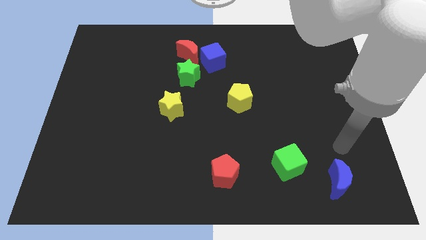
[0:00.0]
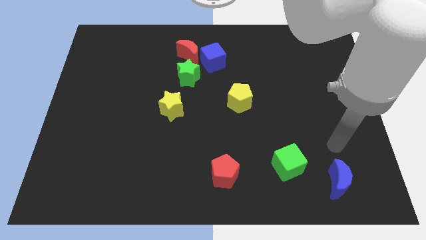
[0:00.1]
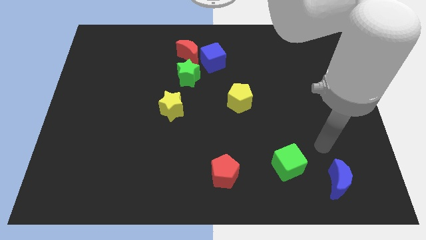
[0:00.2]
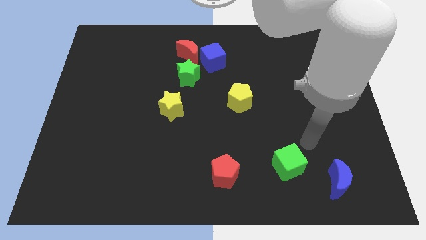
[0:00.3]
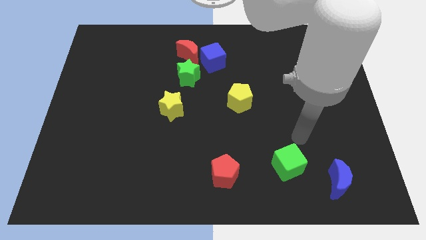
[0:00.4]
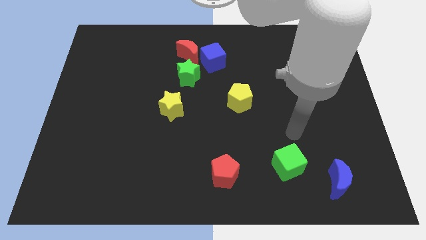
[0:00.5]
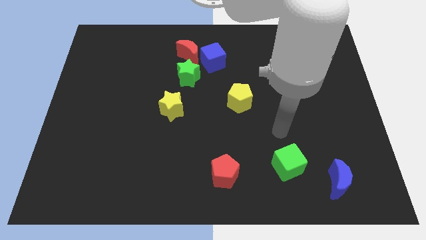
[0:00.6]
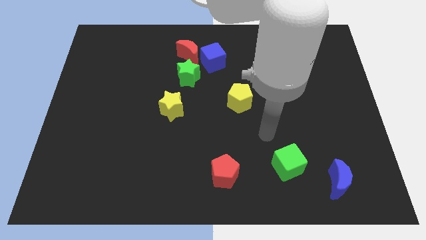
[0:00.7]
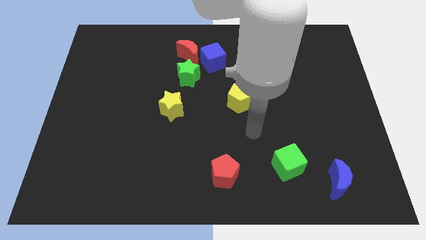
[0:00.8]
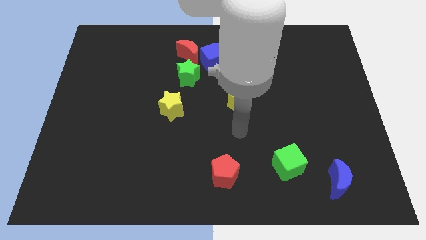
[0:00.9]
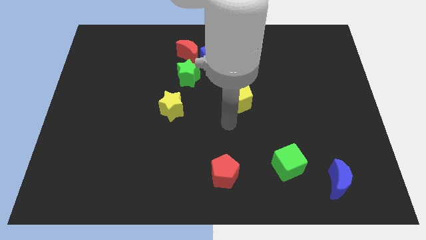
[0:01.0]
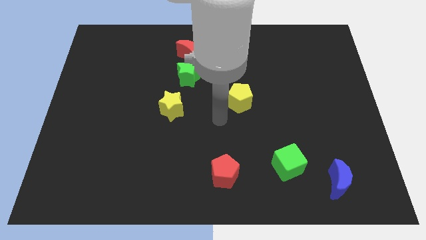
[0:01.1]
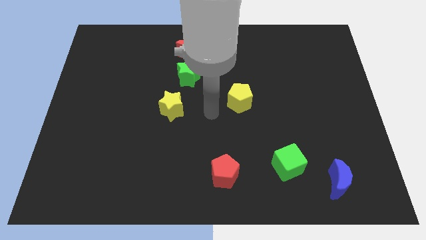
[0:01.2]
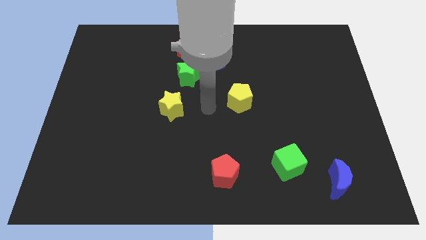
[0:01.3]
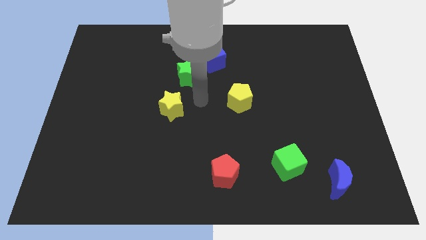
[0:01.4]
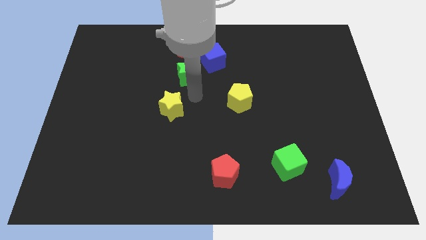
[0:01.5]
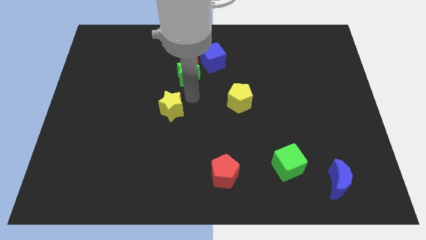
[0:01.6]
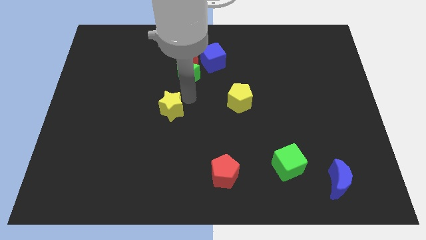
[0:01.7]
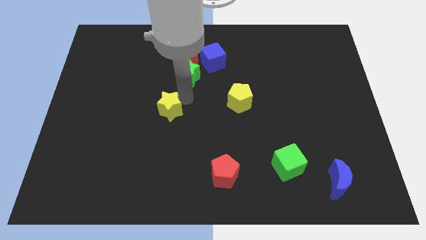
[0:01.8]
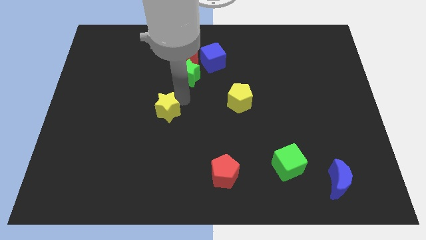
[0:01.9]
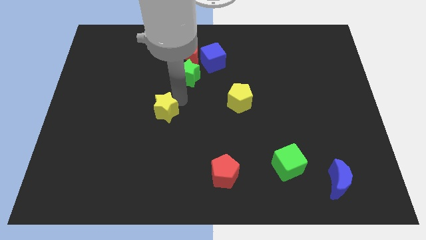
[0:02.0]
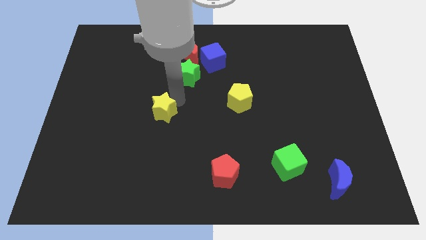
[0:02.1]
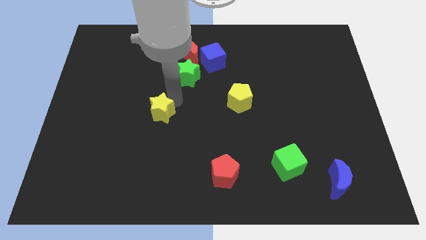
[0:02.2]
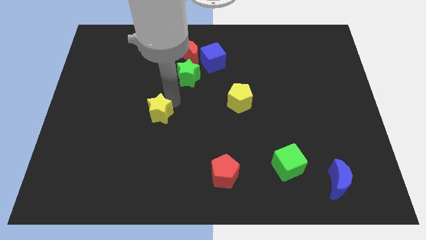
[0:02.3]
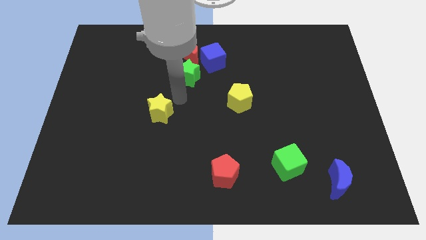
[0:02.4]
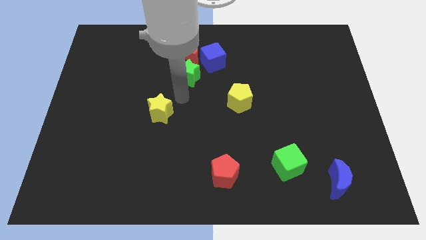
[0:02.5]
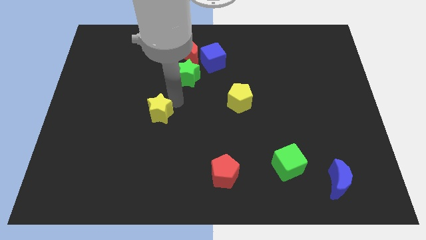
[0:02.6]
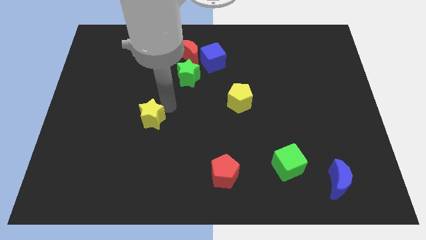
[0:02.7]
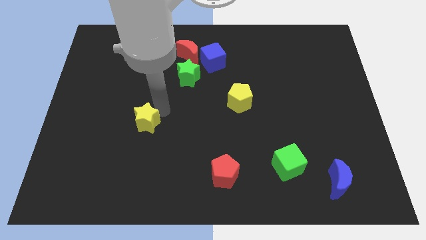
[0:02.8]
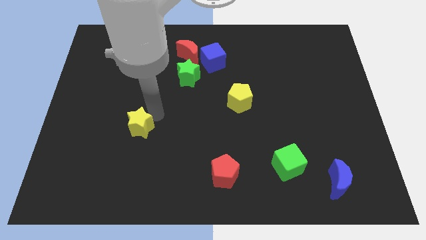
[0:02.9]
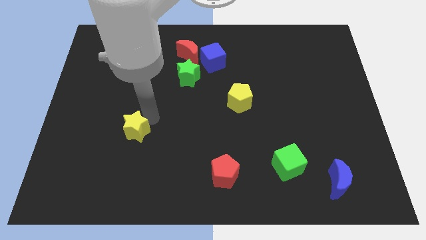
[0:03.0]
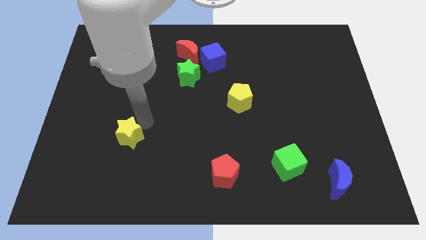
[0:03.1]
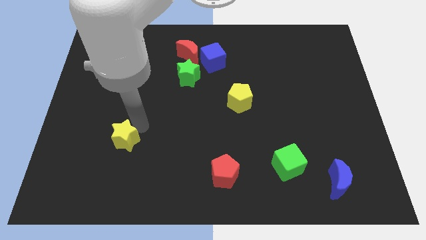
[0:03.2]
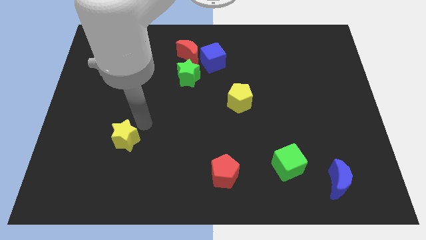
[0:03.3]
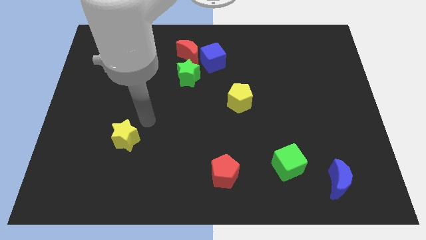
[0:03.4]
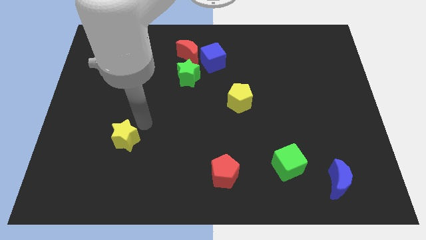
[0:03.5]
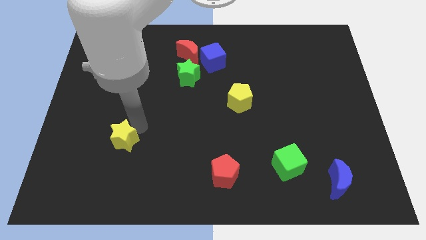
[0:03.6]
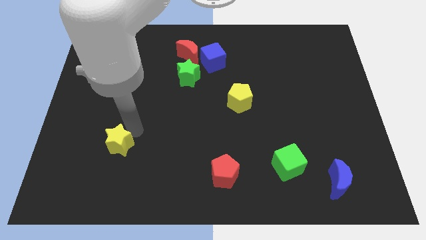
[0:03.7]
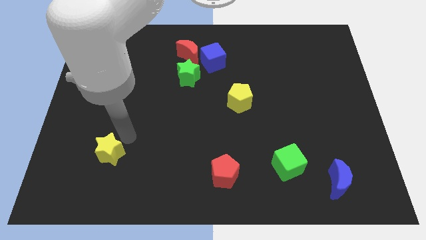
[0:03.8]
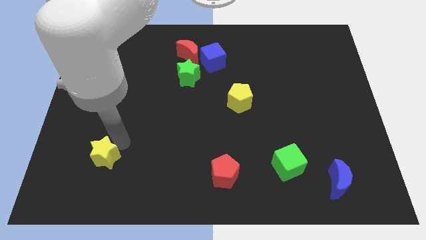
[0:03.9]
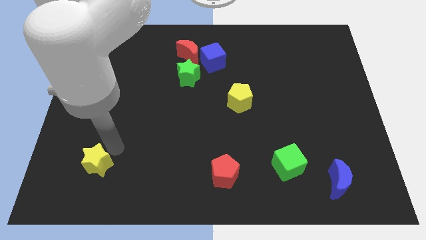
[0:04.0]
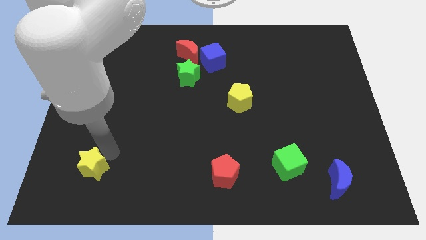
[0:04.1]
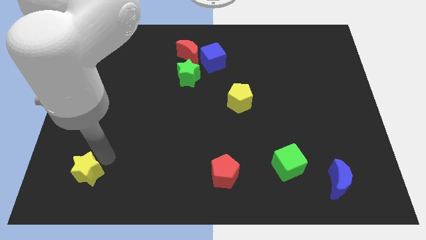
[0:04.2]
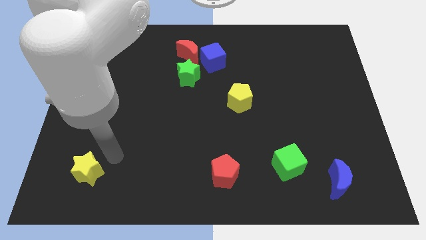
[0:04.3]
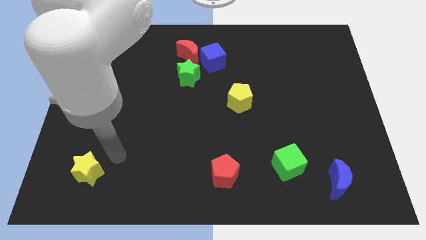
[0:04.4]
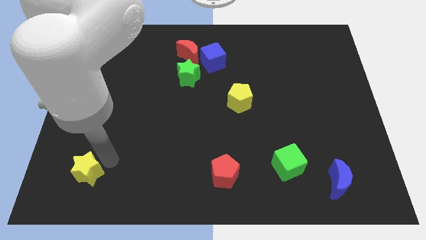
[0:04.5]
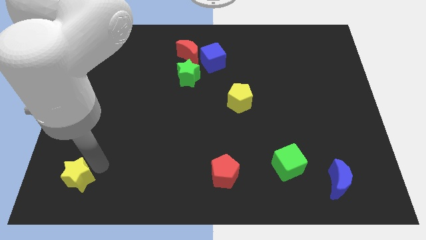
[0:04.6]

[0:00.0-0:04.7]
put the yellow star to the bottom left

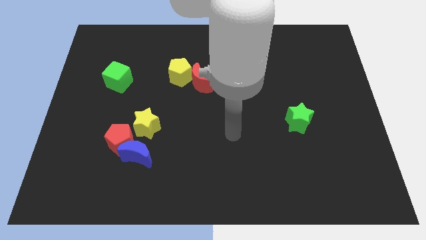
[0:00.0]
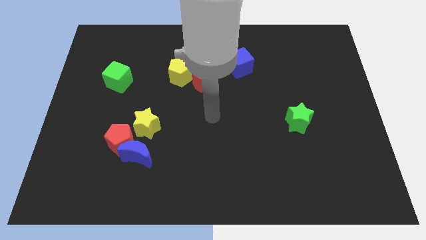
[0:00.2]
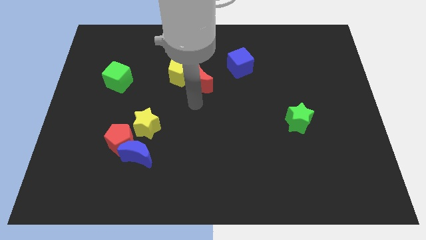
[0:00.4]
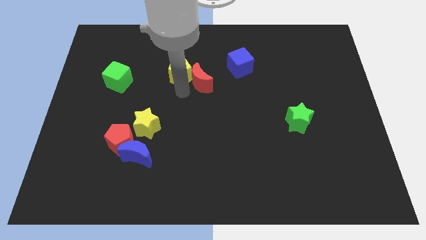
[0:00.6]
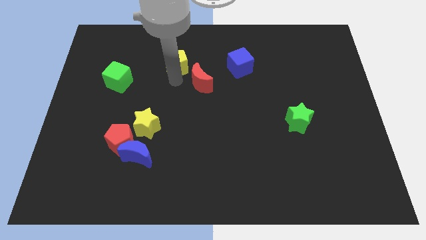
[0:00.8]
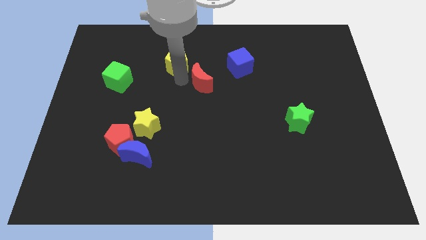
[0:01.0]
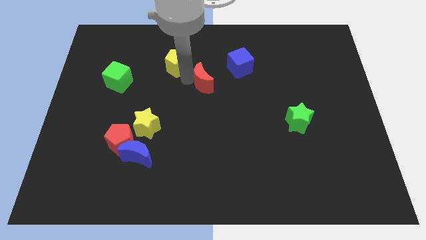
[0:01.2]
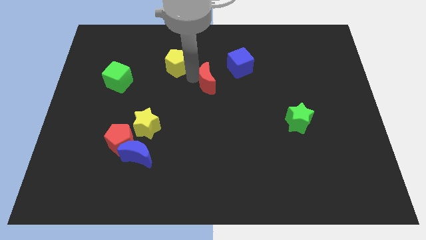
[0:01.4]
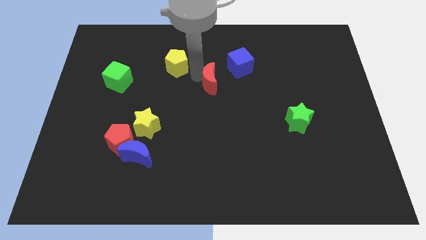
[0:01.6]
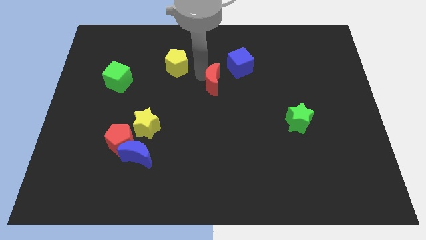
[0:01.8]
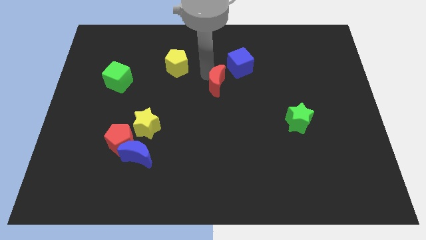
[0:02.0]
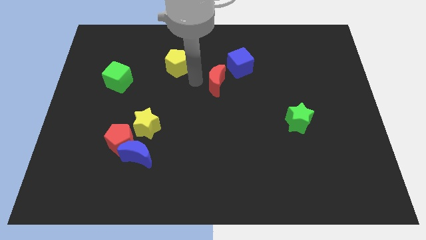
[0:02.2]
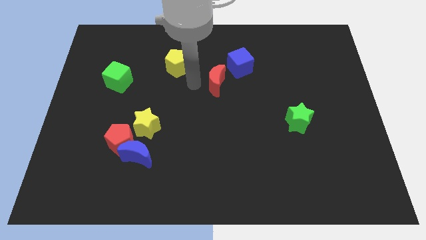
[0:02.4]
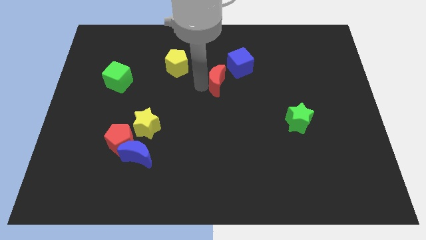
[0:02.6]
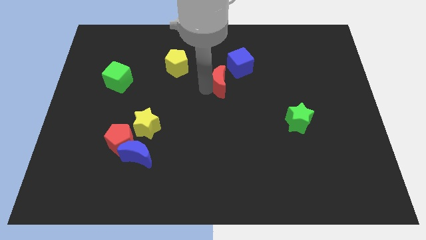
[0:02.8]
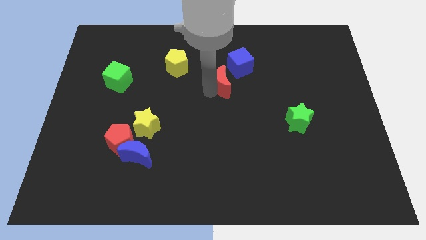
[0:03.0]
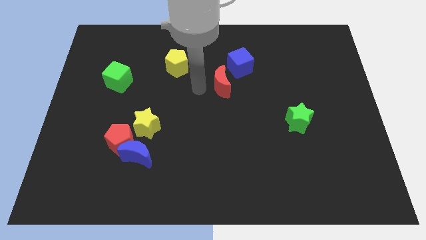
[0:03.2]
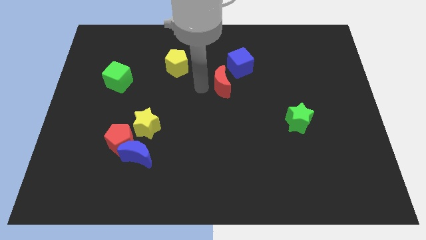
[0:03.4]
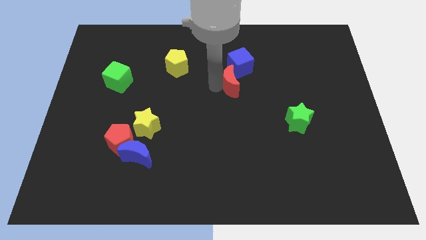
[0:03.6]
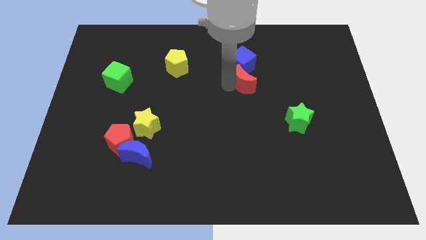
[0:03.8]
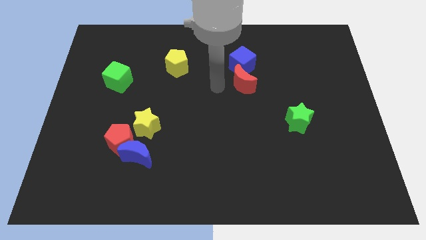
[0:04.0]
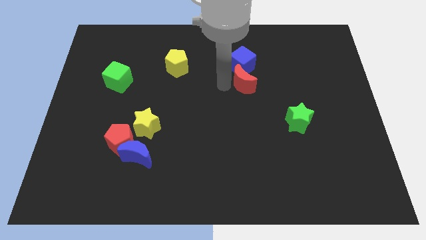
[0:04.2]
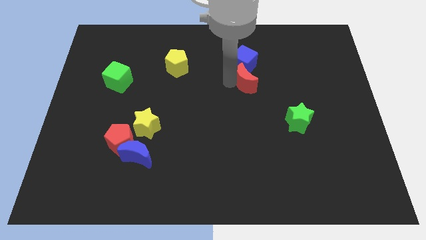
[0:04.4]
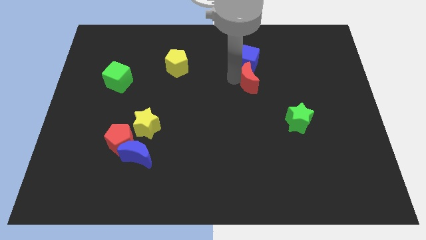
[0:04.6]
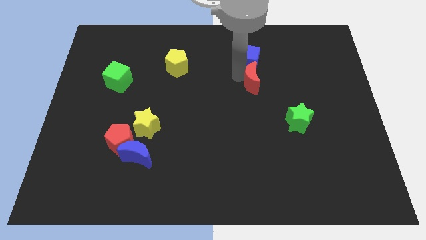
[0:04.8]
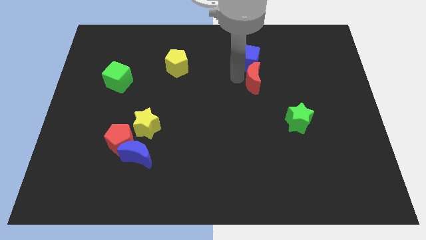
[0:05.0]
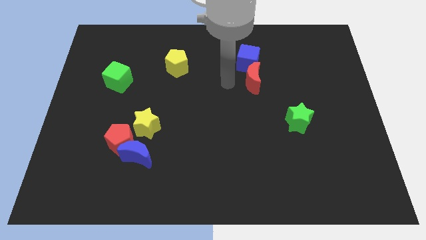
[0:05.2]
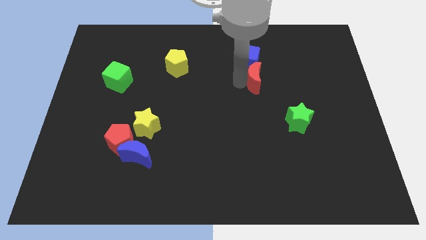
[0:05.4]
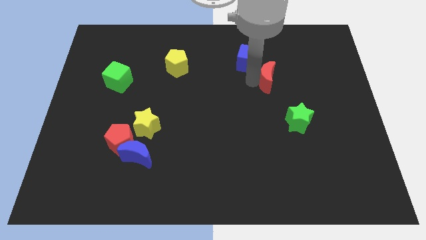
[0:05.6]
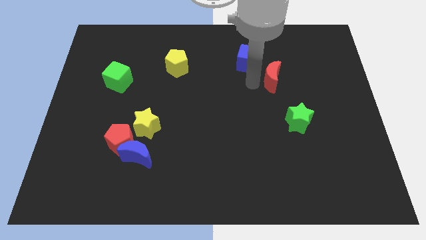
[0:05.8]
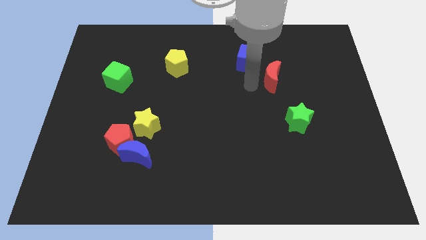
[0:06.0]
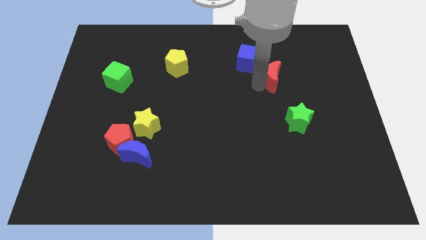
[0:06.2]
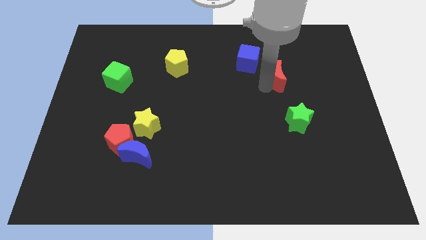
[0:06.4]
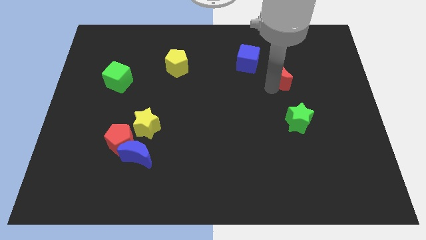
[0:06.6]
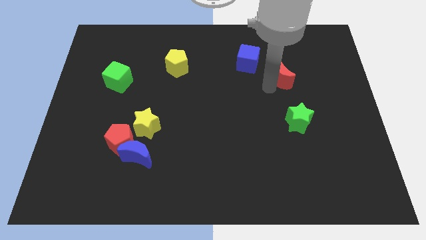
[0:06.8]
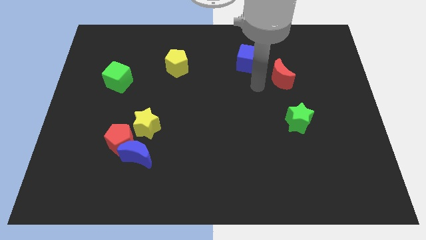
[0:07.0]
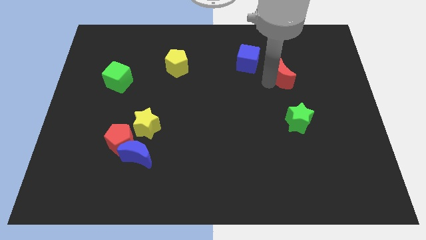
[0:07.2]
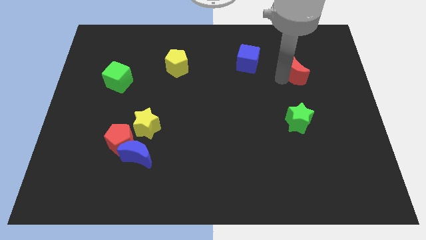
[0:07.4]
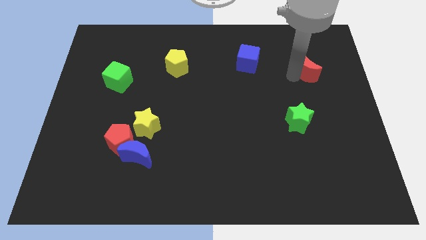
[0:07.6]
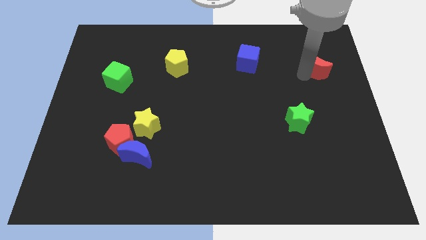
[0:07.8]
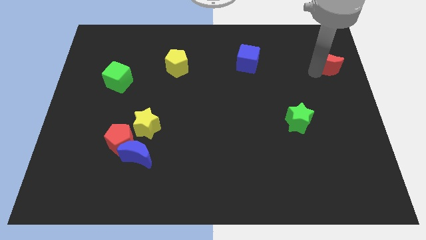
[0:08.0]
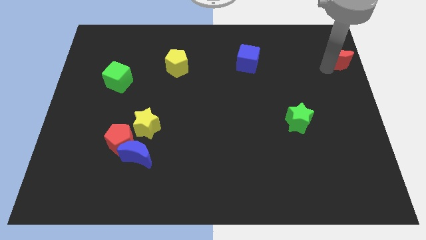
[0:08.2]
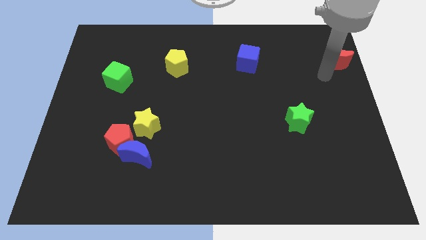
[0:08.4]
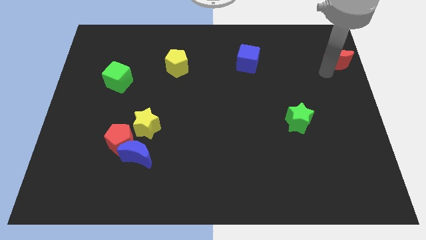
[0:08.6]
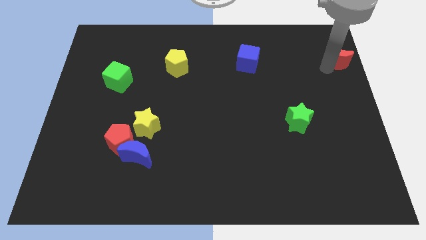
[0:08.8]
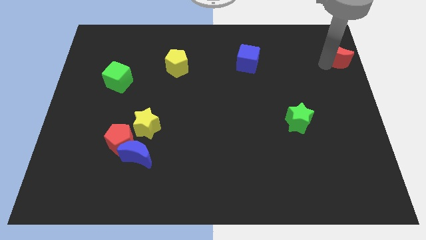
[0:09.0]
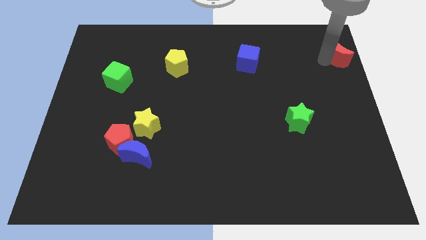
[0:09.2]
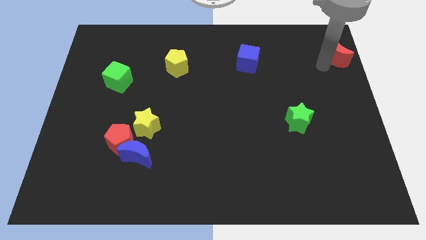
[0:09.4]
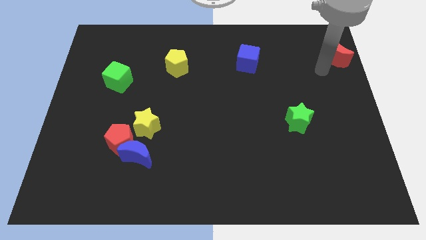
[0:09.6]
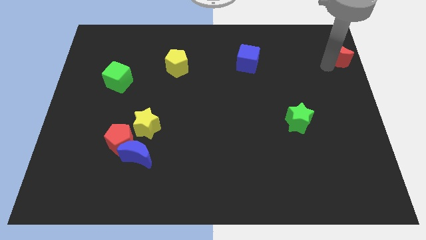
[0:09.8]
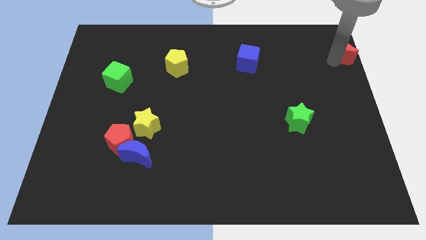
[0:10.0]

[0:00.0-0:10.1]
move the red moon to the upper right corner
